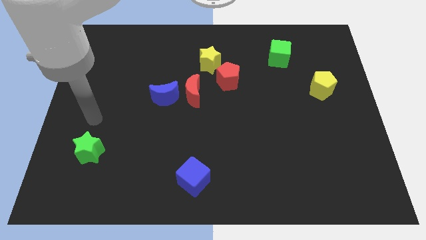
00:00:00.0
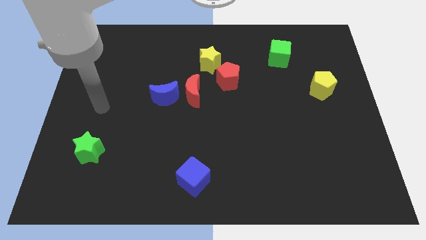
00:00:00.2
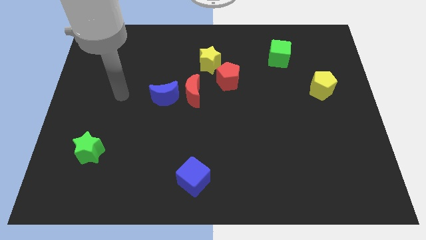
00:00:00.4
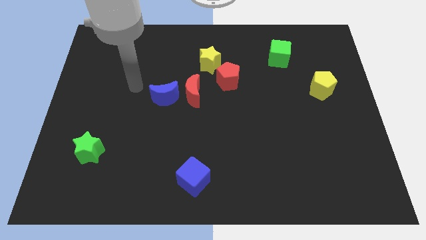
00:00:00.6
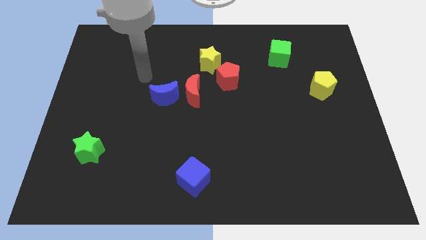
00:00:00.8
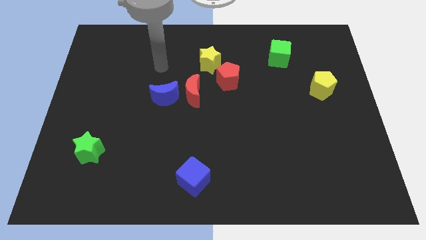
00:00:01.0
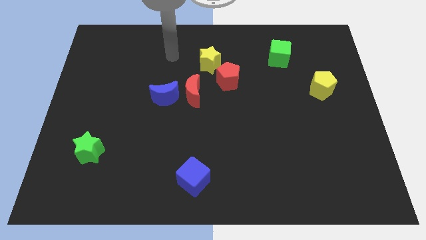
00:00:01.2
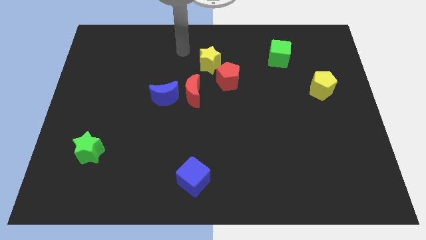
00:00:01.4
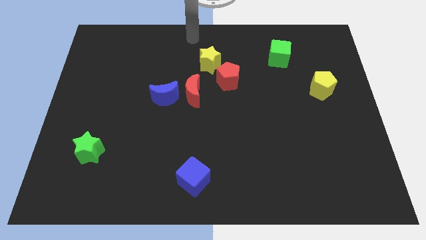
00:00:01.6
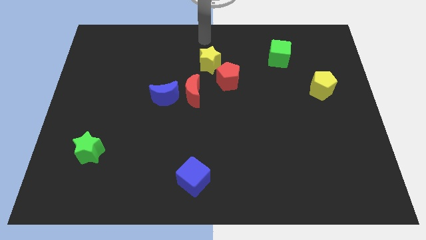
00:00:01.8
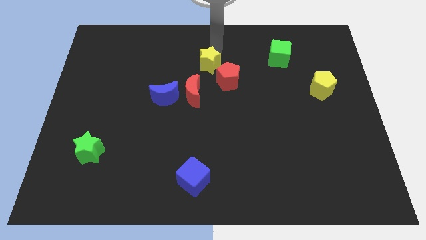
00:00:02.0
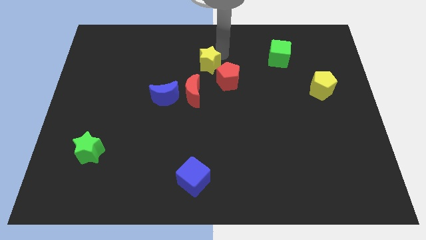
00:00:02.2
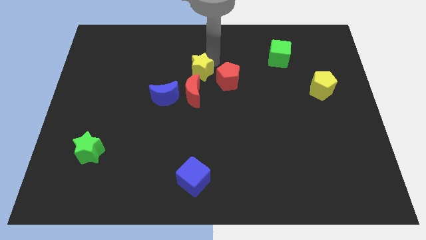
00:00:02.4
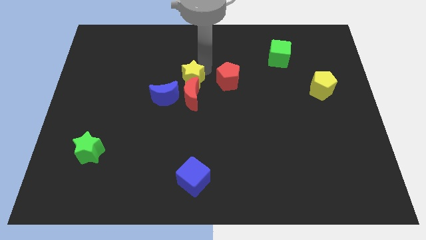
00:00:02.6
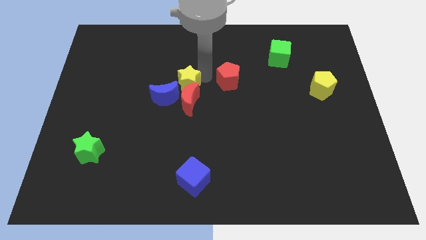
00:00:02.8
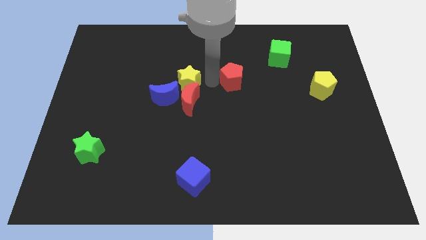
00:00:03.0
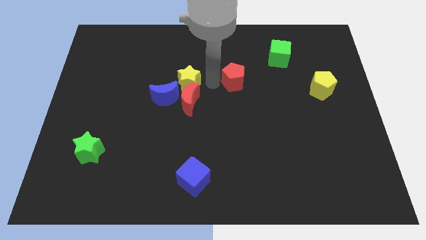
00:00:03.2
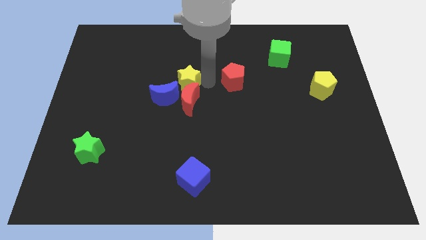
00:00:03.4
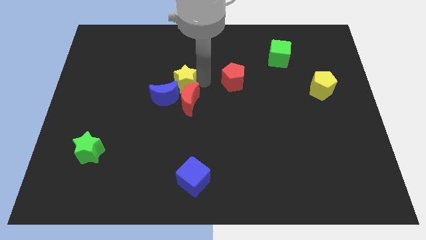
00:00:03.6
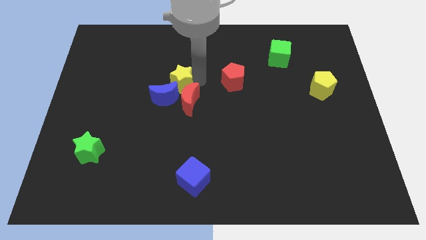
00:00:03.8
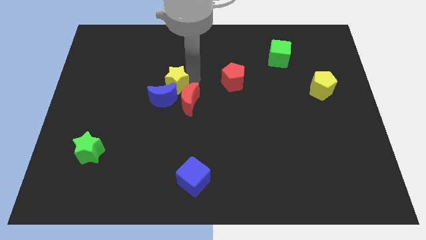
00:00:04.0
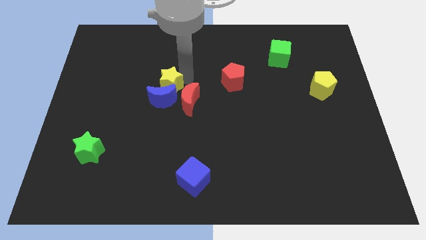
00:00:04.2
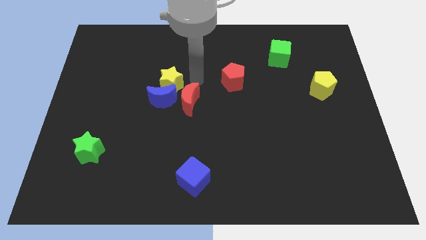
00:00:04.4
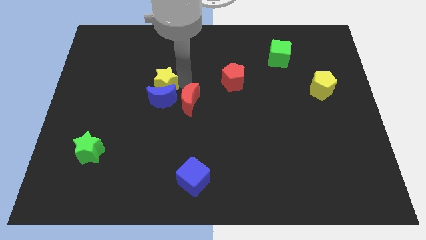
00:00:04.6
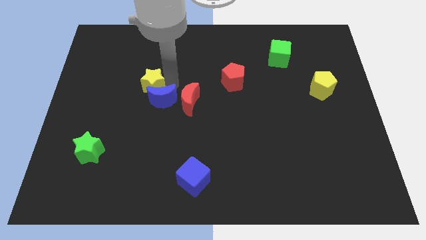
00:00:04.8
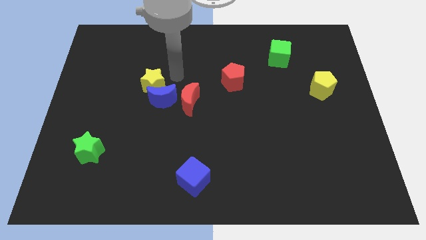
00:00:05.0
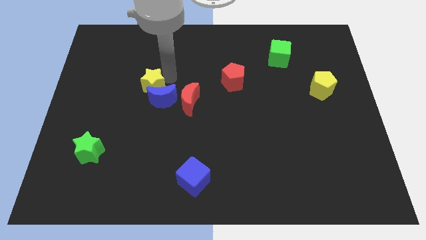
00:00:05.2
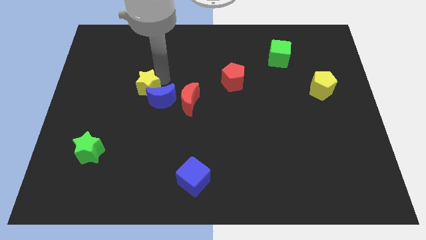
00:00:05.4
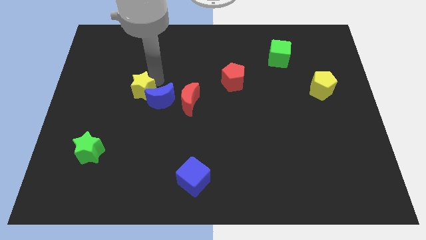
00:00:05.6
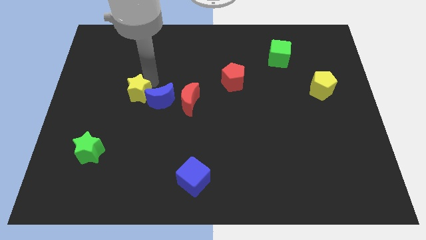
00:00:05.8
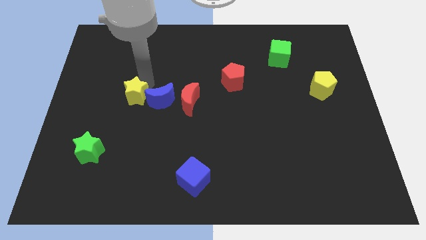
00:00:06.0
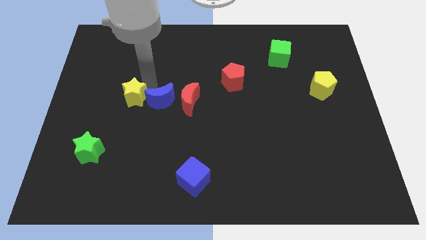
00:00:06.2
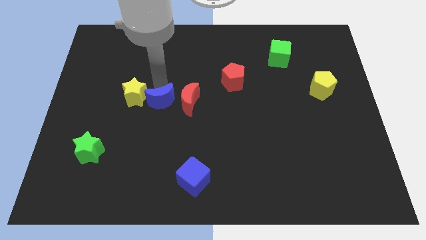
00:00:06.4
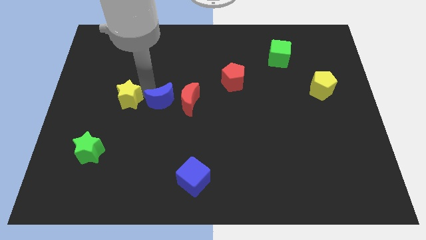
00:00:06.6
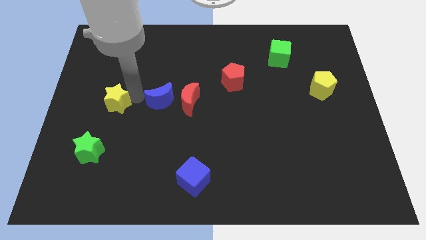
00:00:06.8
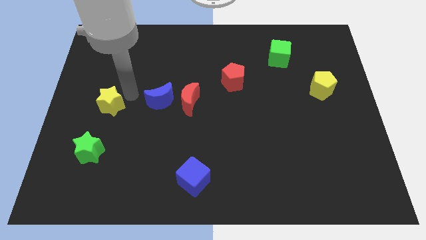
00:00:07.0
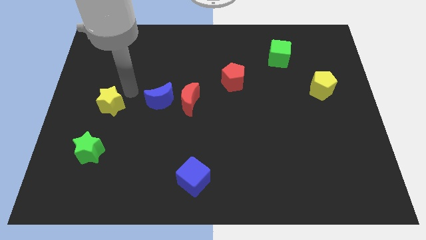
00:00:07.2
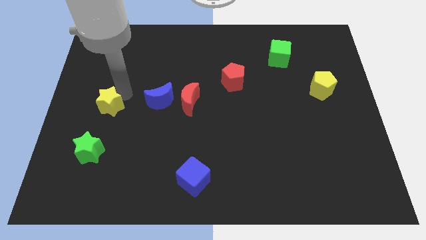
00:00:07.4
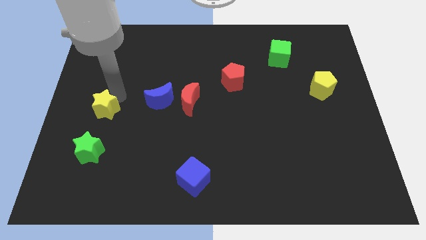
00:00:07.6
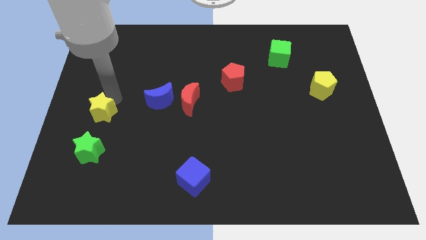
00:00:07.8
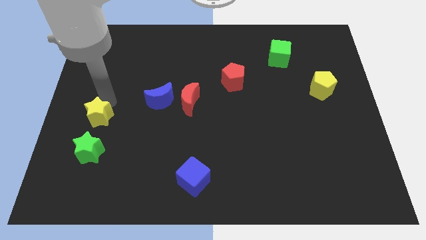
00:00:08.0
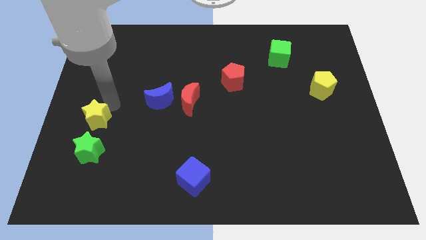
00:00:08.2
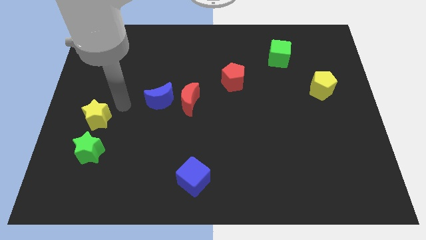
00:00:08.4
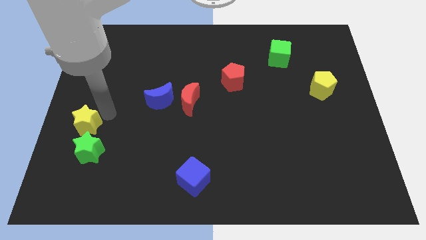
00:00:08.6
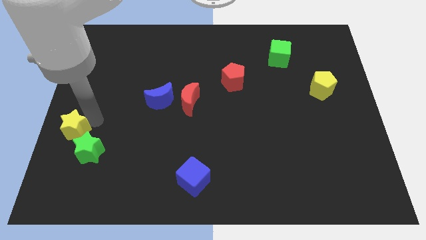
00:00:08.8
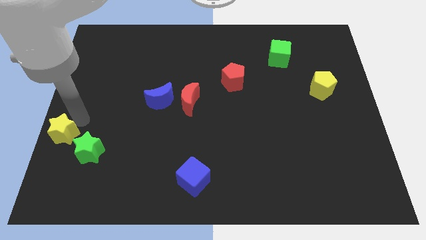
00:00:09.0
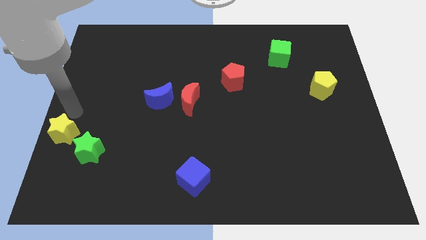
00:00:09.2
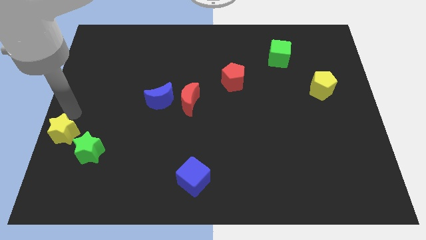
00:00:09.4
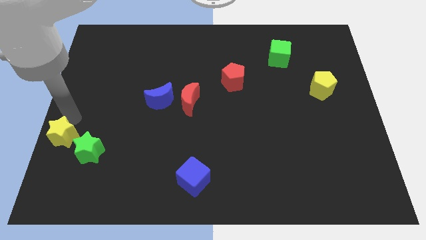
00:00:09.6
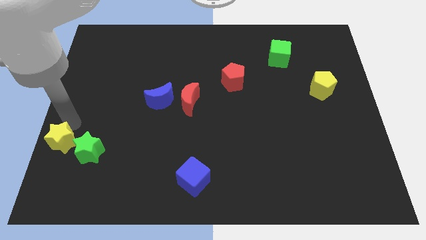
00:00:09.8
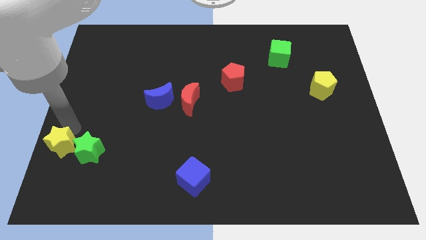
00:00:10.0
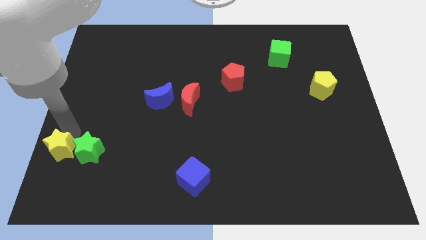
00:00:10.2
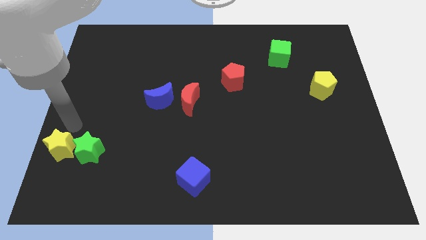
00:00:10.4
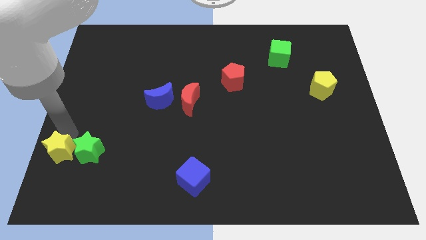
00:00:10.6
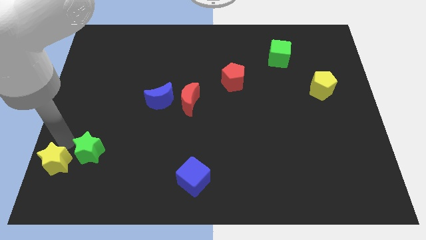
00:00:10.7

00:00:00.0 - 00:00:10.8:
push the yellow star to the lower left corner

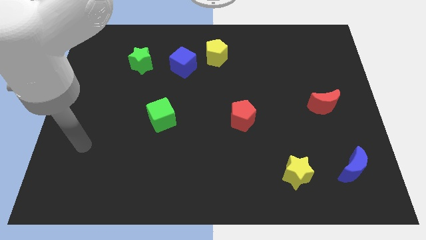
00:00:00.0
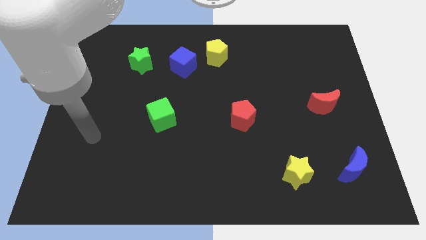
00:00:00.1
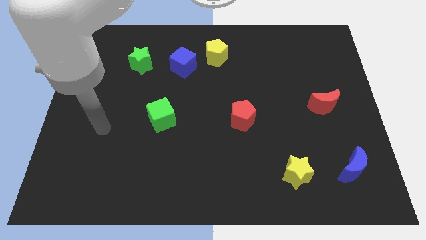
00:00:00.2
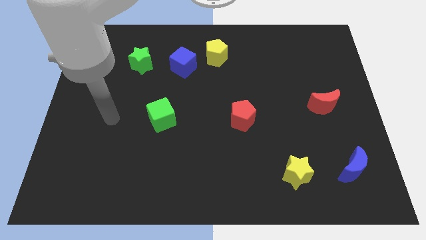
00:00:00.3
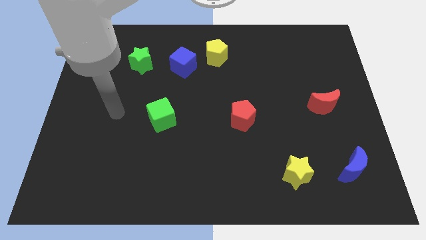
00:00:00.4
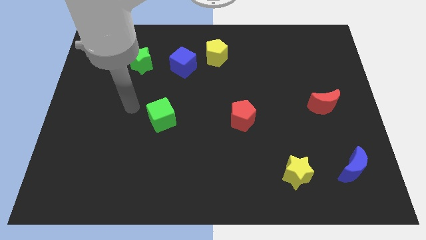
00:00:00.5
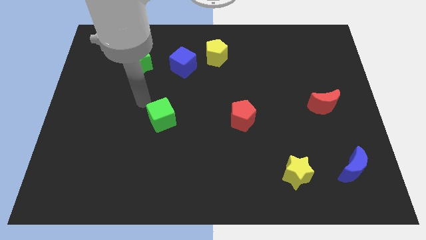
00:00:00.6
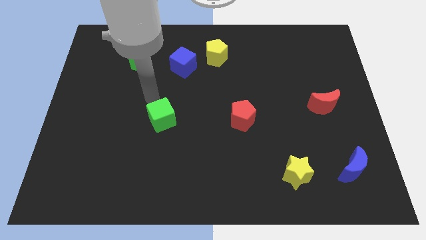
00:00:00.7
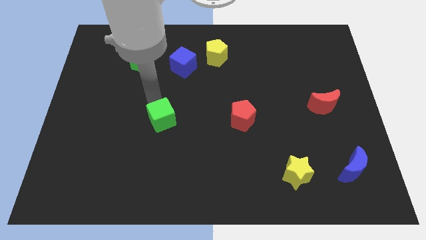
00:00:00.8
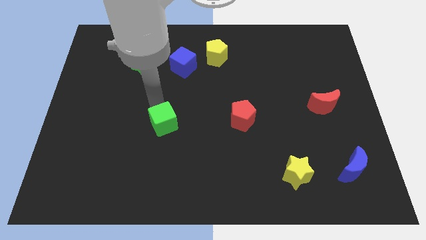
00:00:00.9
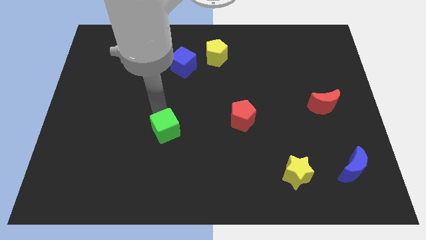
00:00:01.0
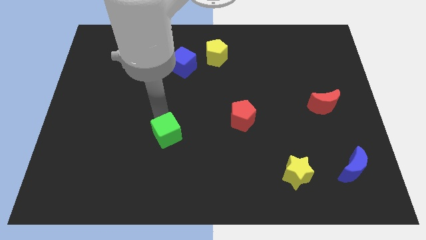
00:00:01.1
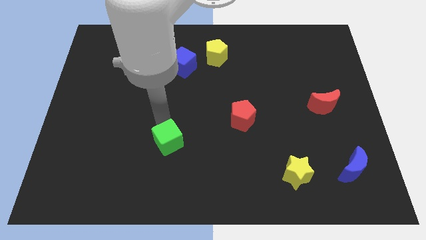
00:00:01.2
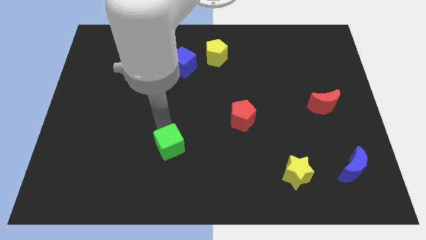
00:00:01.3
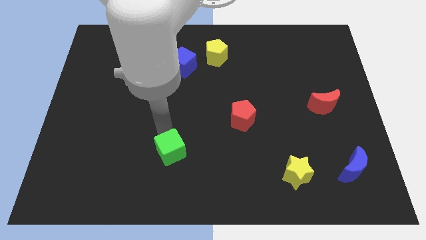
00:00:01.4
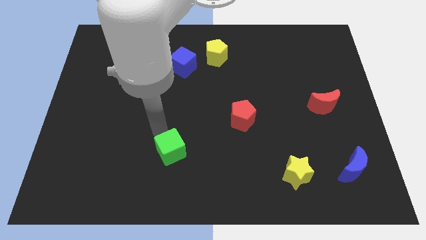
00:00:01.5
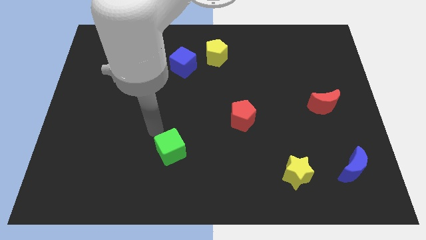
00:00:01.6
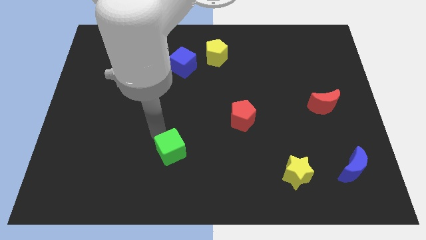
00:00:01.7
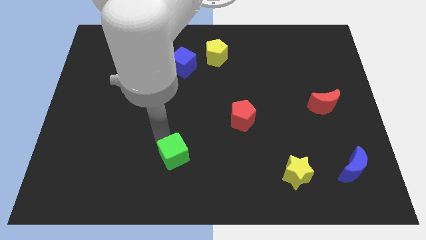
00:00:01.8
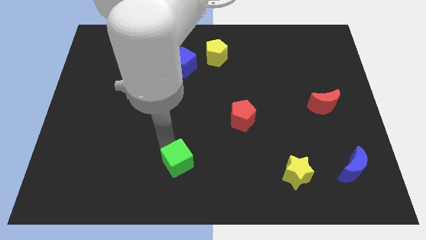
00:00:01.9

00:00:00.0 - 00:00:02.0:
move the green cube to the bottom
